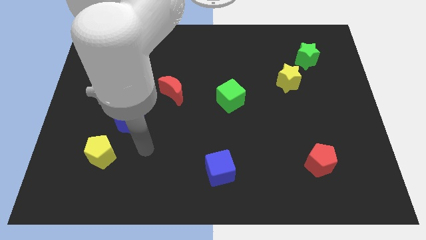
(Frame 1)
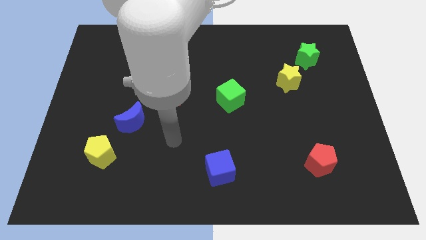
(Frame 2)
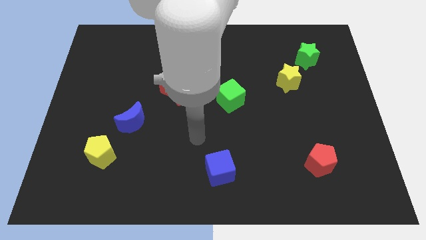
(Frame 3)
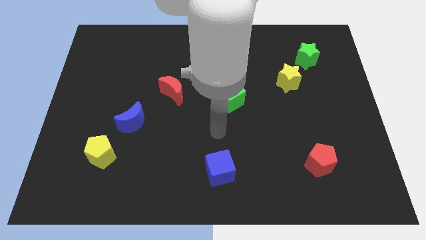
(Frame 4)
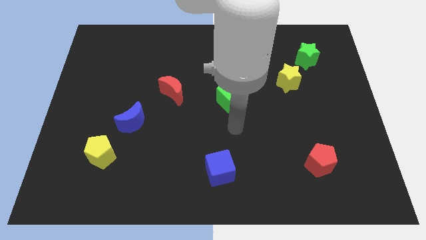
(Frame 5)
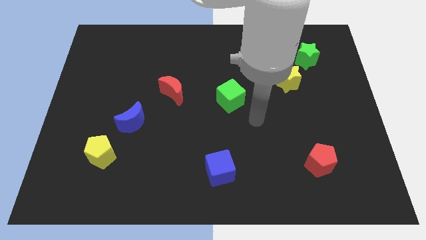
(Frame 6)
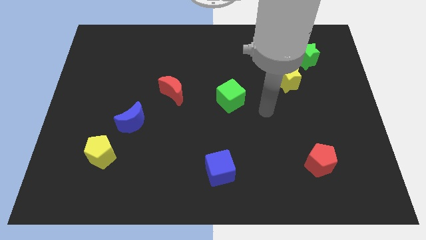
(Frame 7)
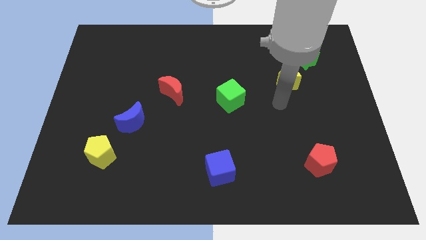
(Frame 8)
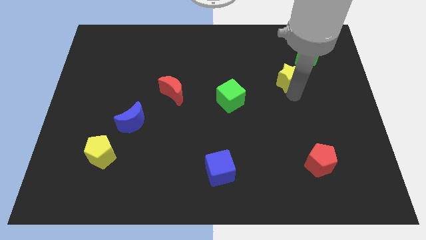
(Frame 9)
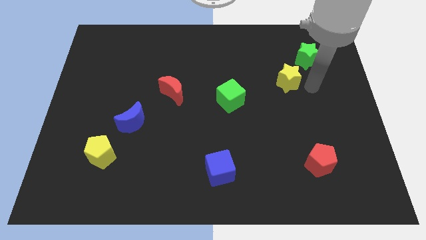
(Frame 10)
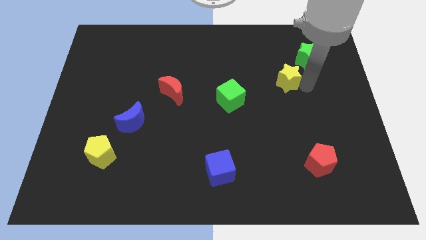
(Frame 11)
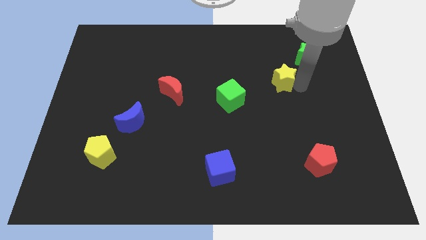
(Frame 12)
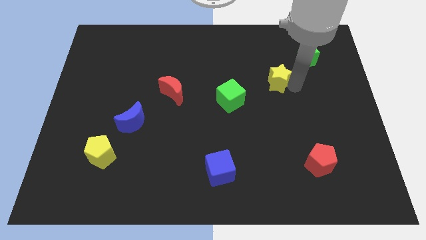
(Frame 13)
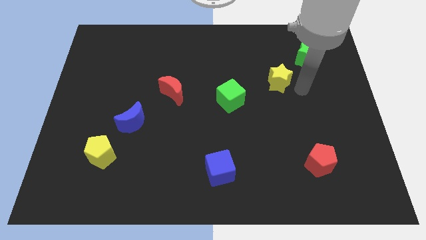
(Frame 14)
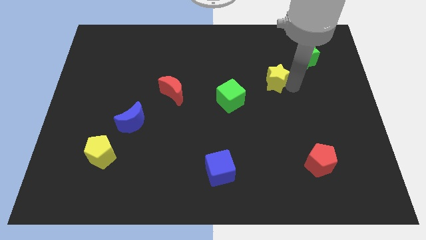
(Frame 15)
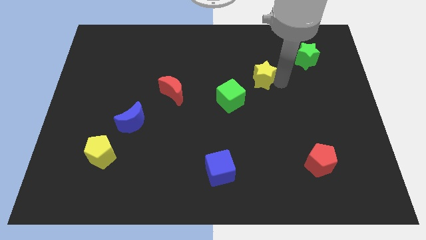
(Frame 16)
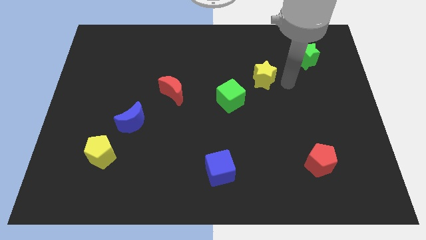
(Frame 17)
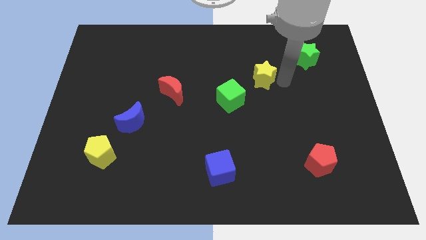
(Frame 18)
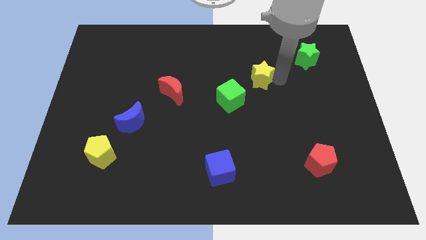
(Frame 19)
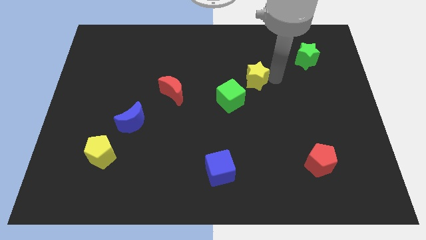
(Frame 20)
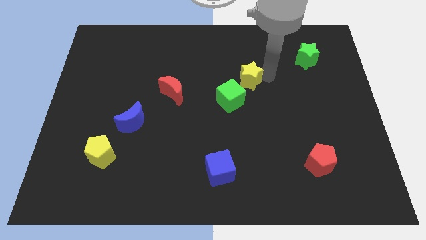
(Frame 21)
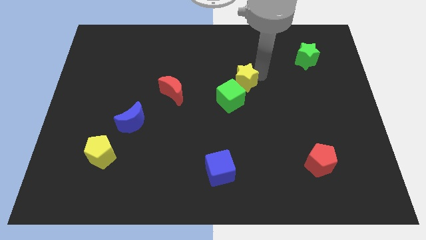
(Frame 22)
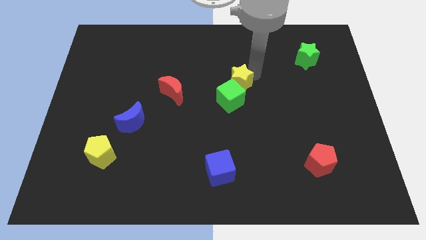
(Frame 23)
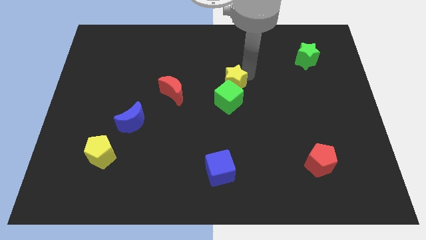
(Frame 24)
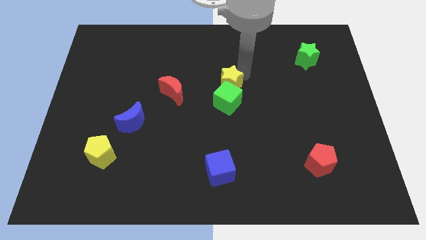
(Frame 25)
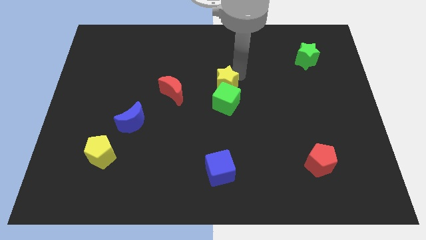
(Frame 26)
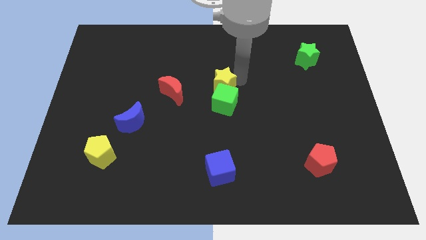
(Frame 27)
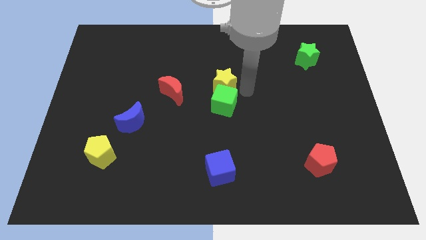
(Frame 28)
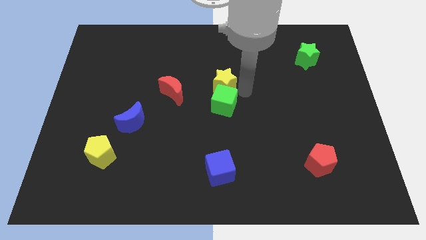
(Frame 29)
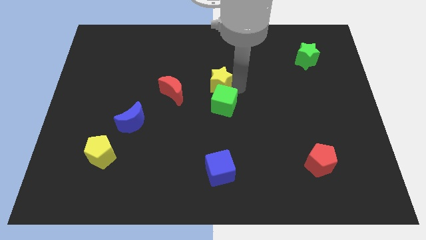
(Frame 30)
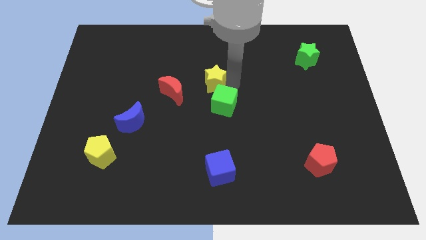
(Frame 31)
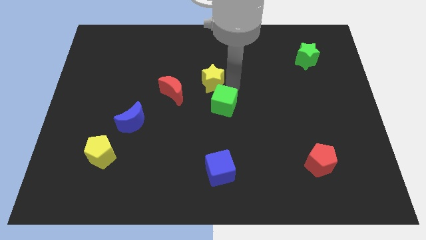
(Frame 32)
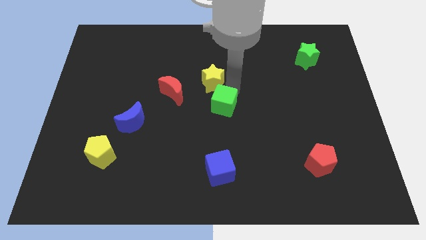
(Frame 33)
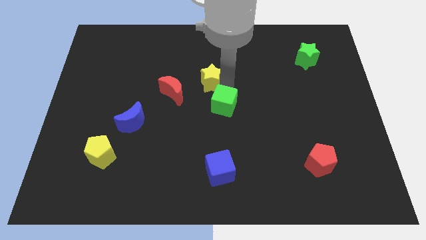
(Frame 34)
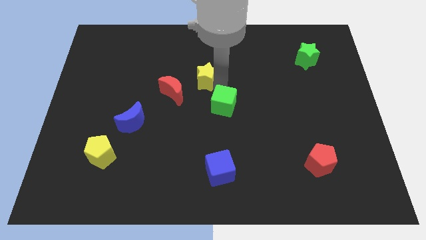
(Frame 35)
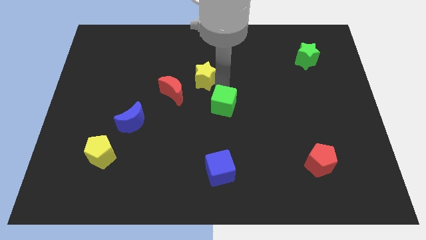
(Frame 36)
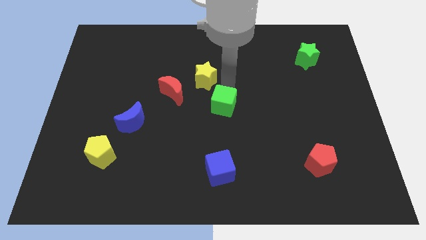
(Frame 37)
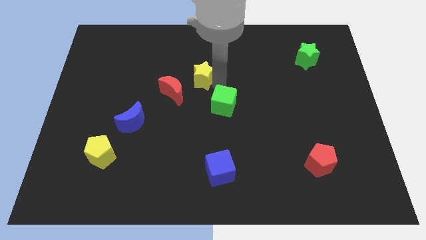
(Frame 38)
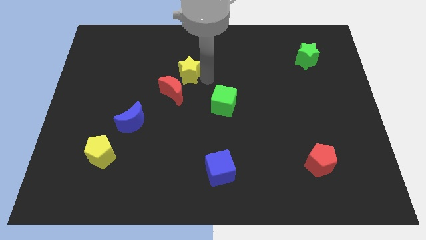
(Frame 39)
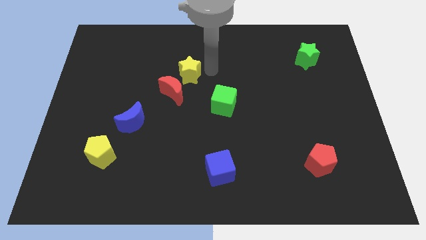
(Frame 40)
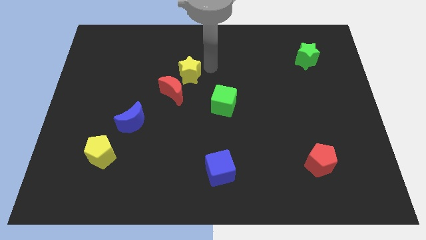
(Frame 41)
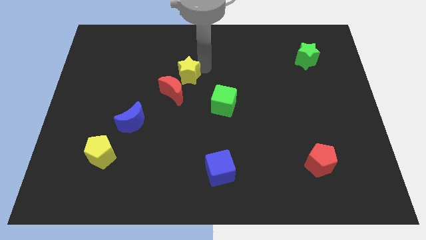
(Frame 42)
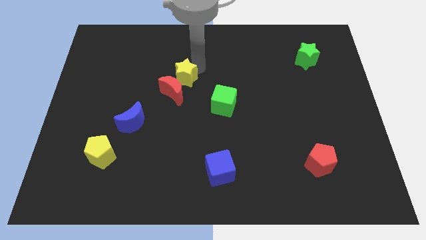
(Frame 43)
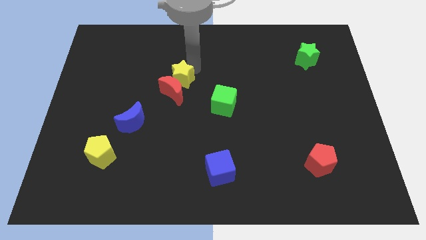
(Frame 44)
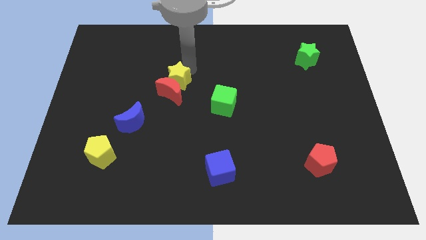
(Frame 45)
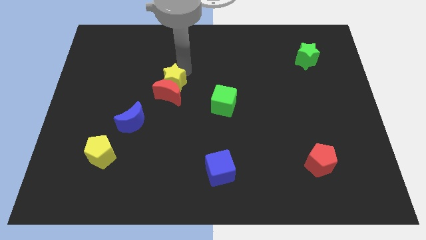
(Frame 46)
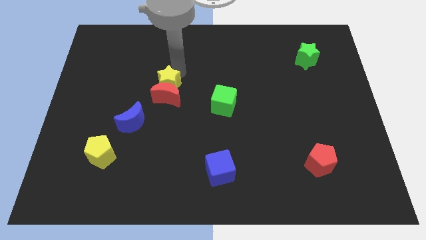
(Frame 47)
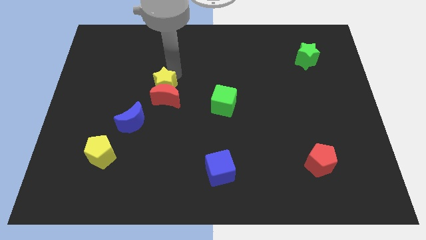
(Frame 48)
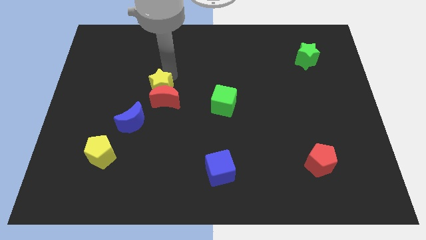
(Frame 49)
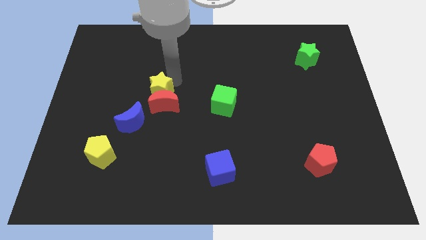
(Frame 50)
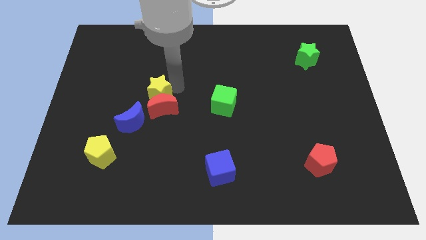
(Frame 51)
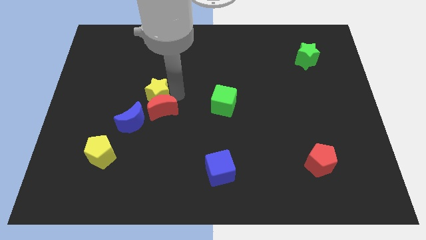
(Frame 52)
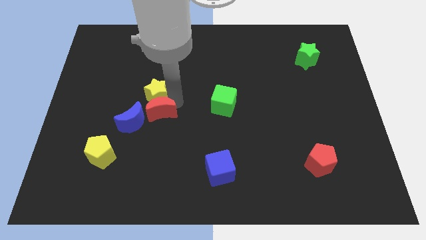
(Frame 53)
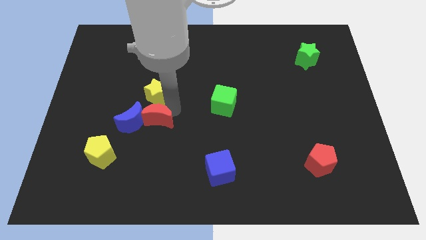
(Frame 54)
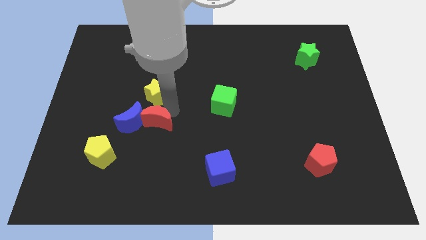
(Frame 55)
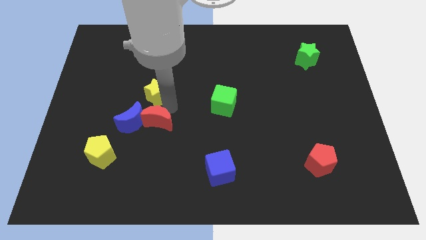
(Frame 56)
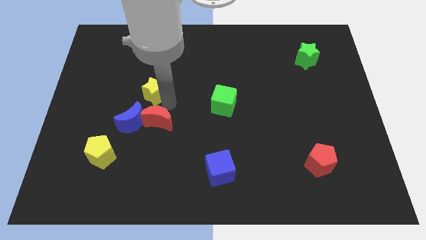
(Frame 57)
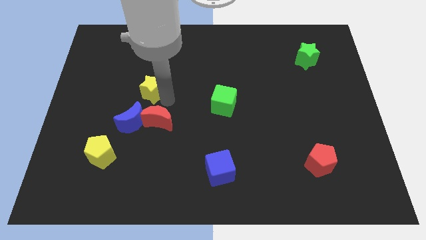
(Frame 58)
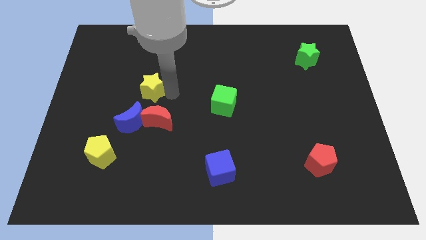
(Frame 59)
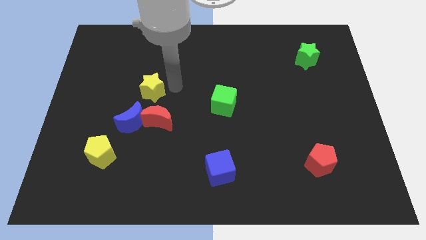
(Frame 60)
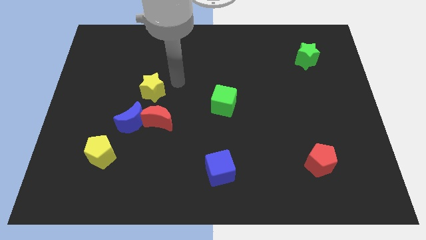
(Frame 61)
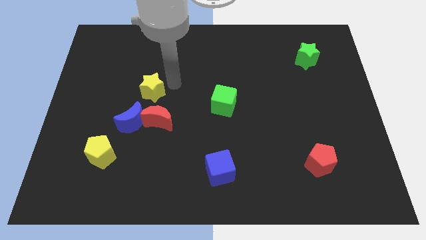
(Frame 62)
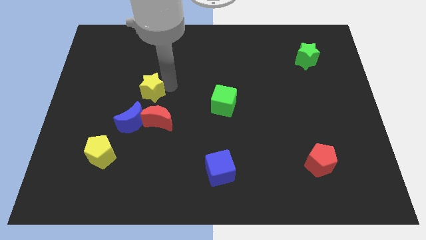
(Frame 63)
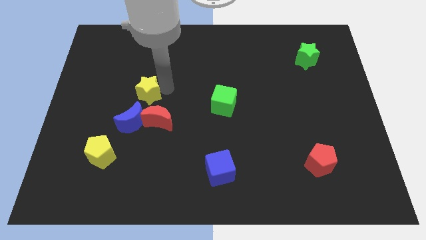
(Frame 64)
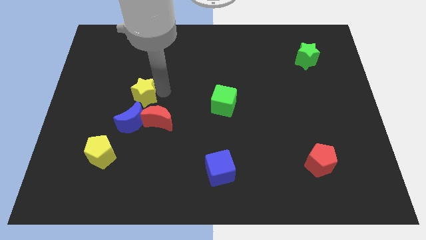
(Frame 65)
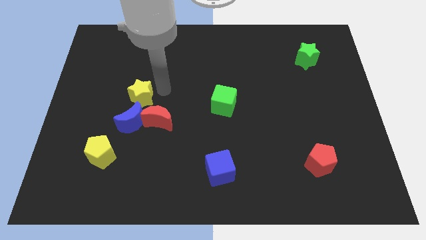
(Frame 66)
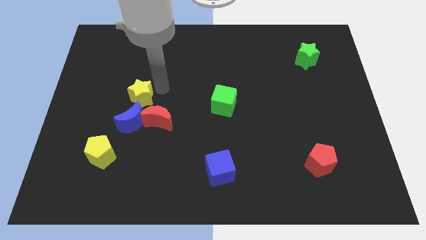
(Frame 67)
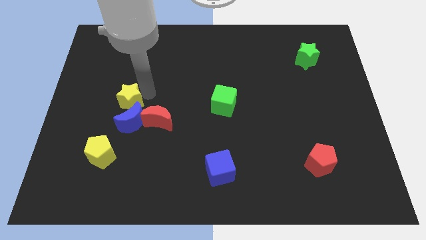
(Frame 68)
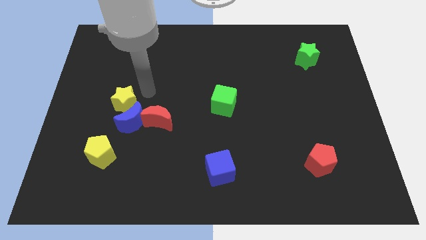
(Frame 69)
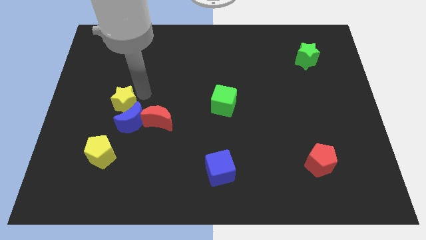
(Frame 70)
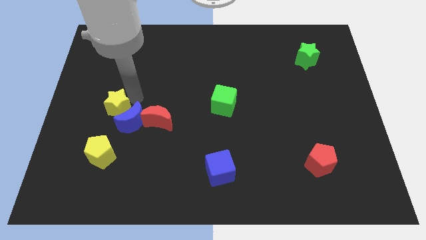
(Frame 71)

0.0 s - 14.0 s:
slide the yellow star left of the blue moon

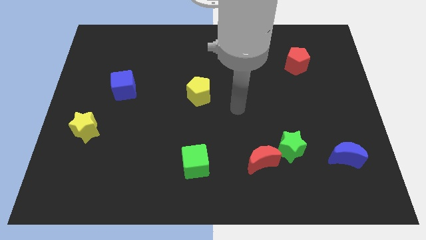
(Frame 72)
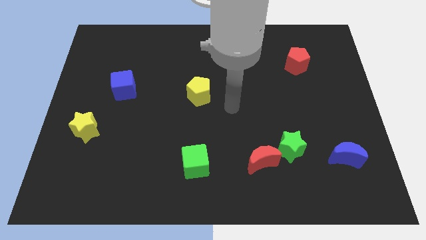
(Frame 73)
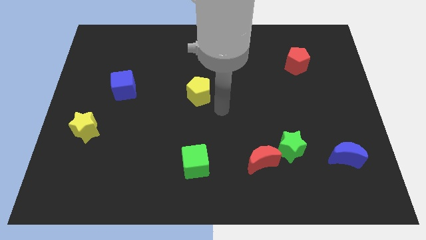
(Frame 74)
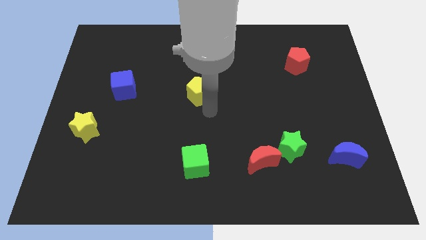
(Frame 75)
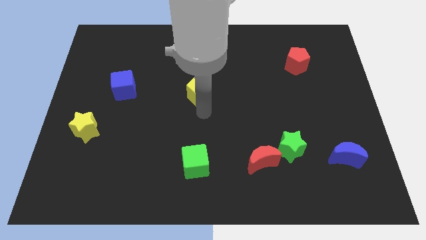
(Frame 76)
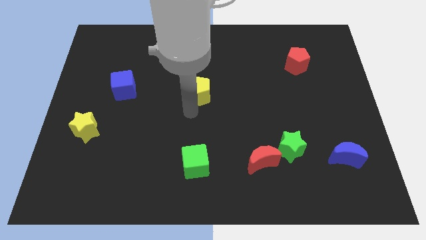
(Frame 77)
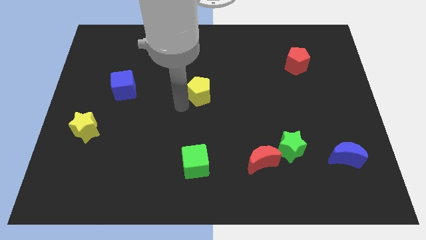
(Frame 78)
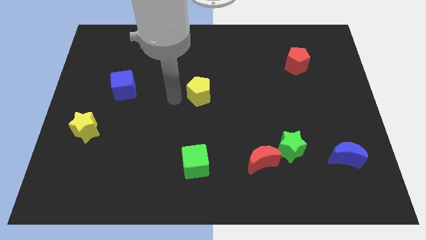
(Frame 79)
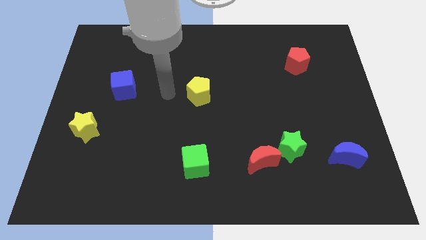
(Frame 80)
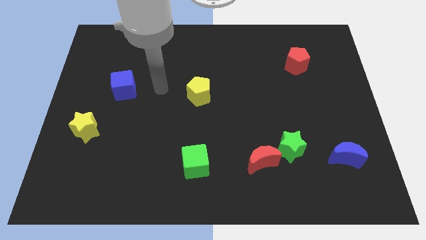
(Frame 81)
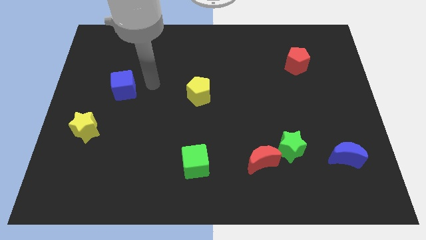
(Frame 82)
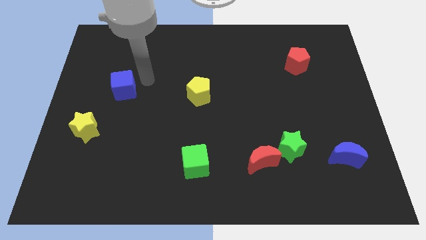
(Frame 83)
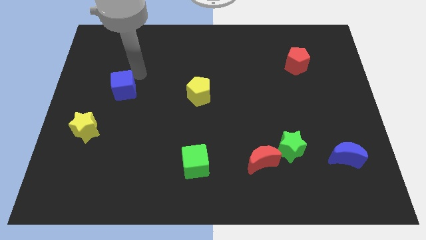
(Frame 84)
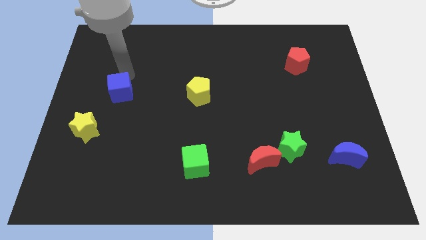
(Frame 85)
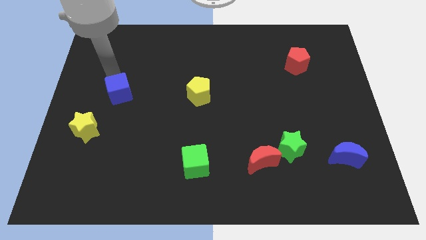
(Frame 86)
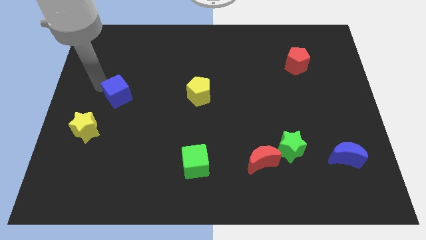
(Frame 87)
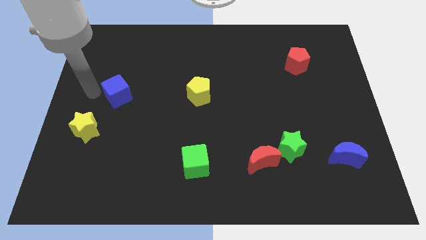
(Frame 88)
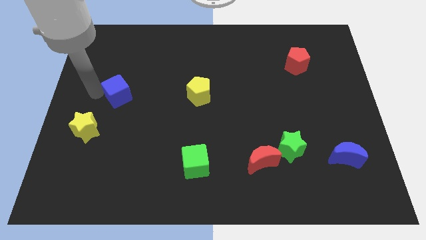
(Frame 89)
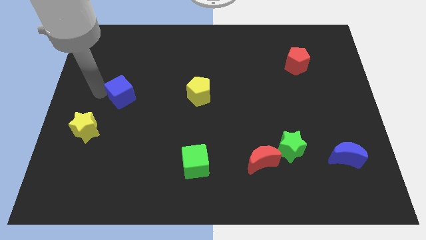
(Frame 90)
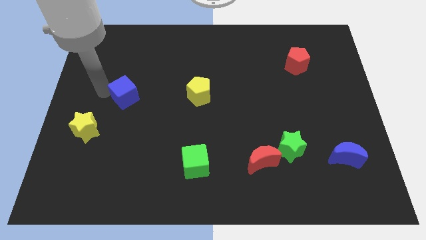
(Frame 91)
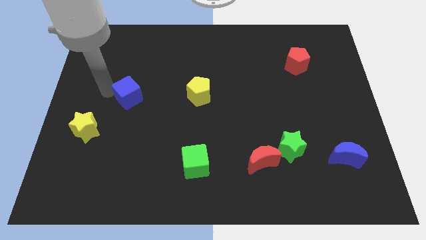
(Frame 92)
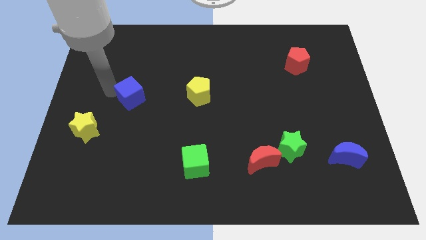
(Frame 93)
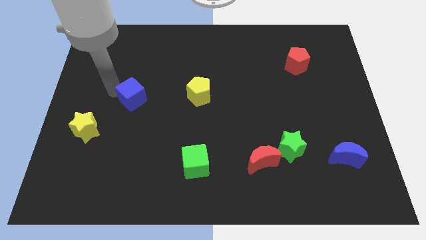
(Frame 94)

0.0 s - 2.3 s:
slide the blue cube left of the yellow pentagon
